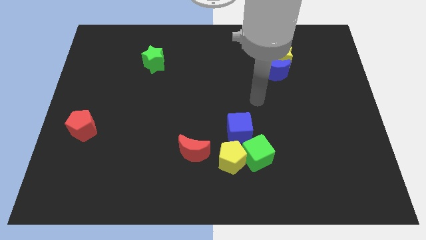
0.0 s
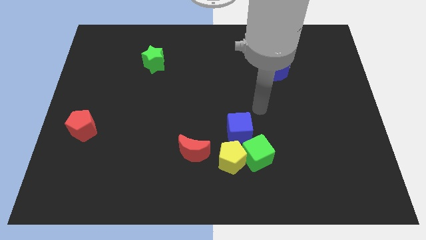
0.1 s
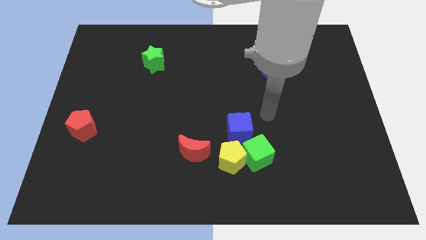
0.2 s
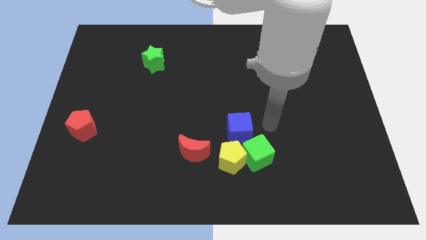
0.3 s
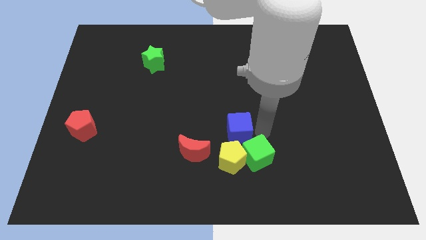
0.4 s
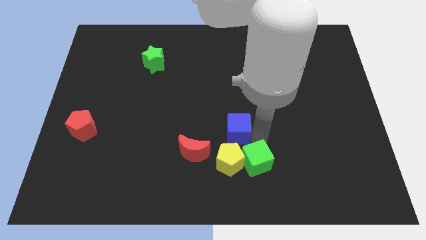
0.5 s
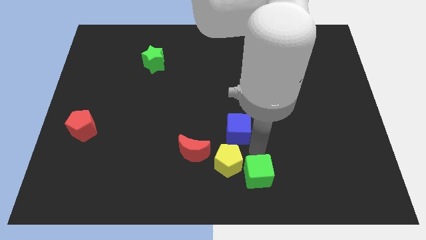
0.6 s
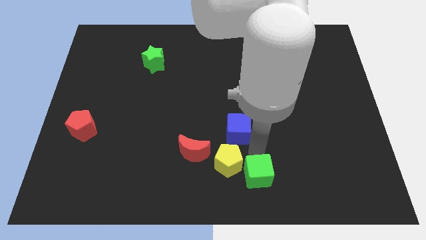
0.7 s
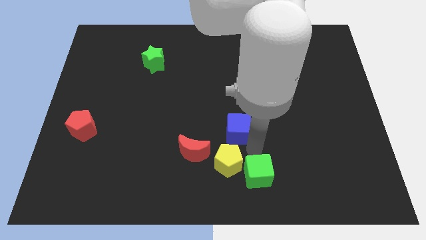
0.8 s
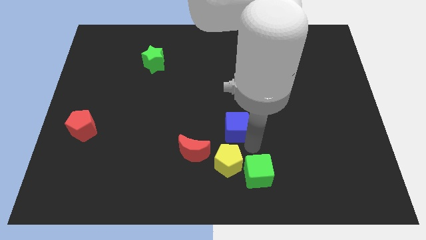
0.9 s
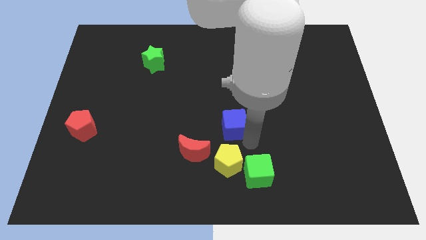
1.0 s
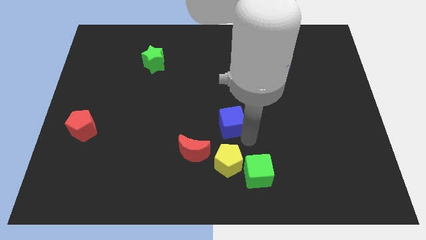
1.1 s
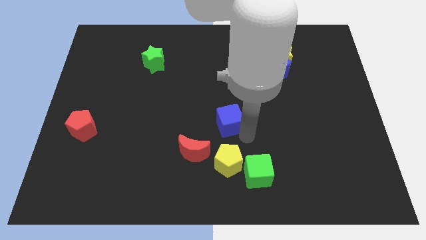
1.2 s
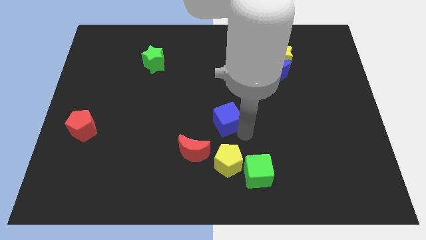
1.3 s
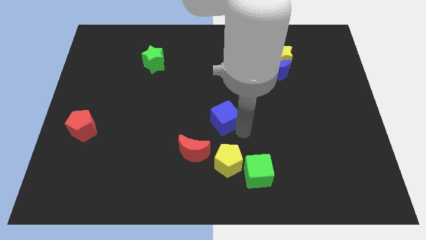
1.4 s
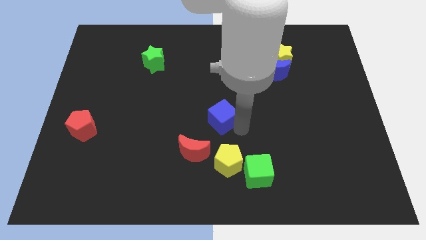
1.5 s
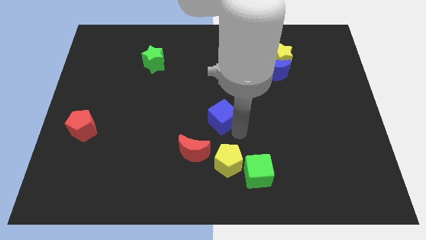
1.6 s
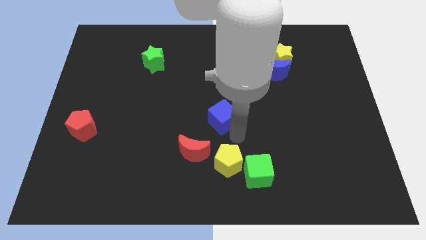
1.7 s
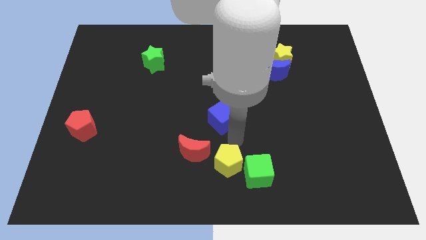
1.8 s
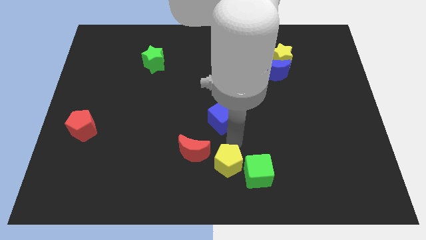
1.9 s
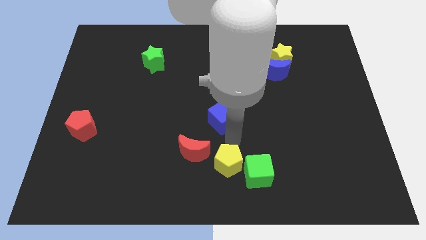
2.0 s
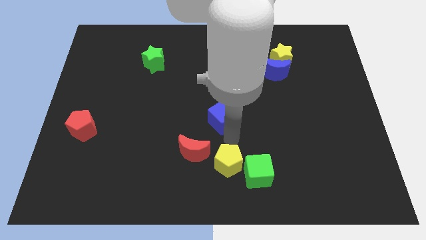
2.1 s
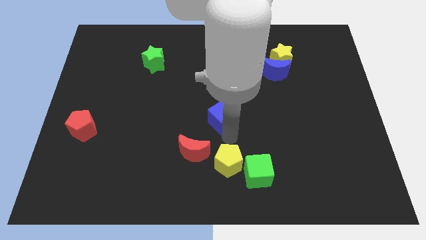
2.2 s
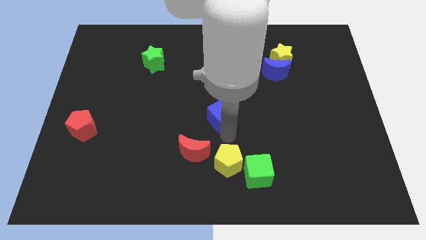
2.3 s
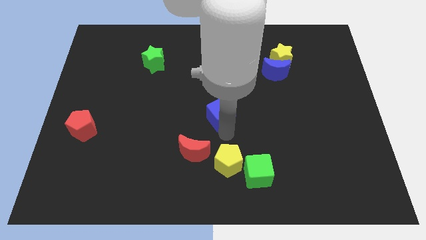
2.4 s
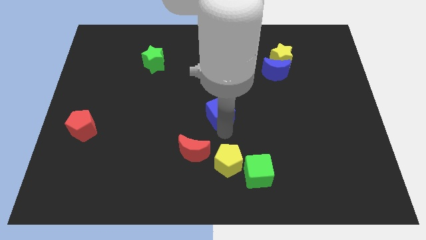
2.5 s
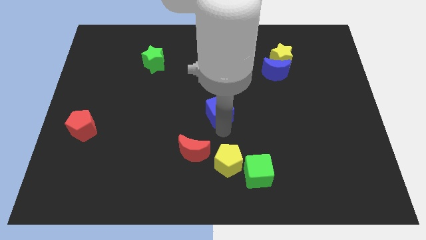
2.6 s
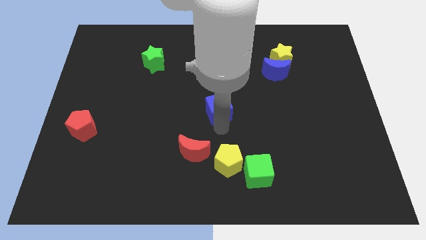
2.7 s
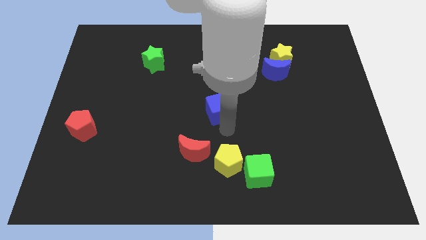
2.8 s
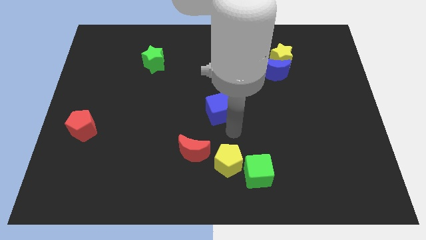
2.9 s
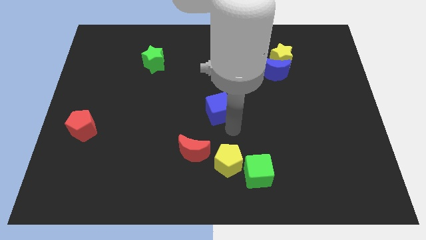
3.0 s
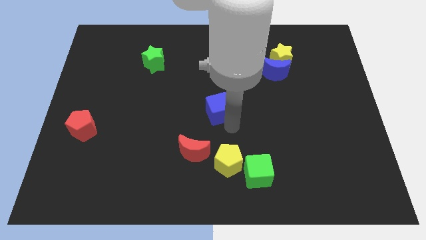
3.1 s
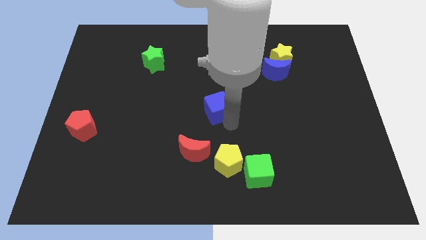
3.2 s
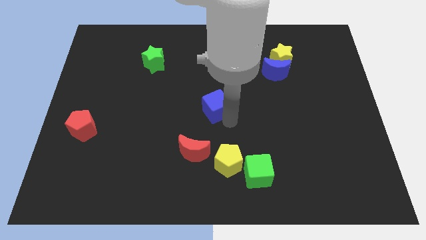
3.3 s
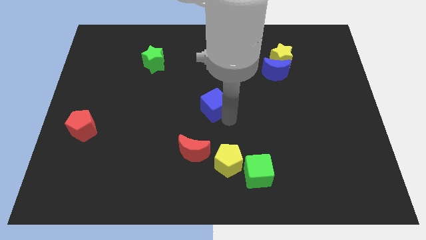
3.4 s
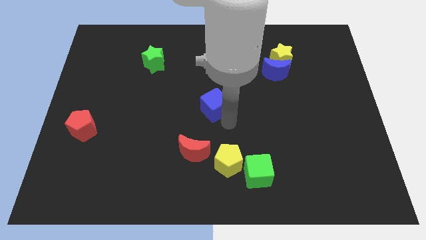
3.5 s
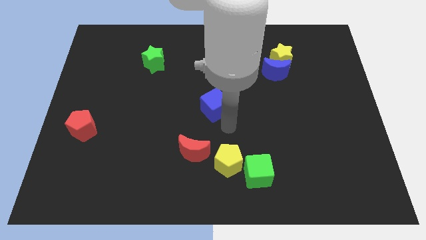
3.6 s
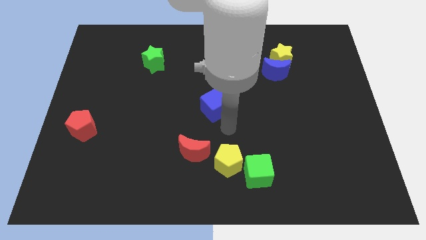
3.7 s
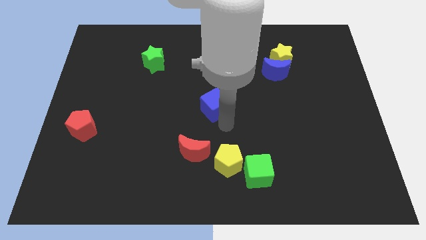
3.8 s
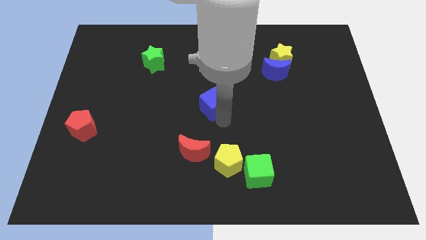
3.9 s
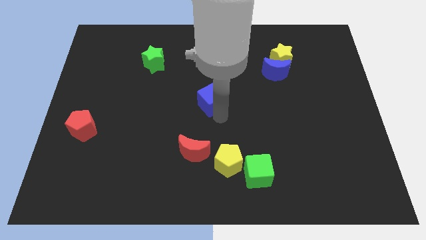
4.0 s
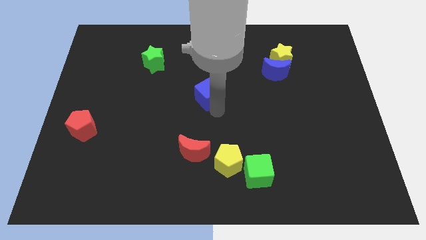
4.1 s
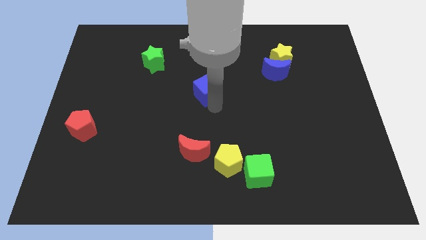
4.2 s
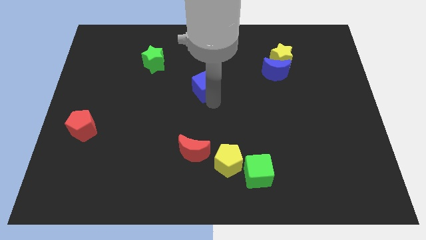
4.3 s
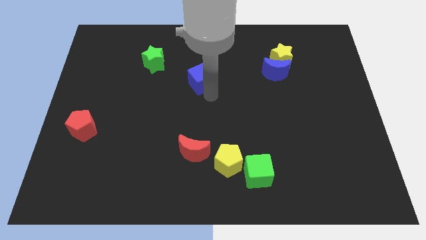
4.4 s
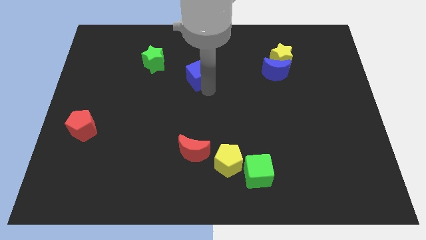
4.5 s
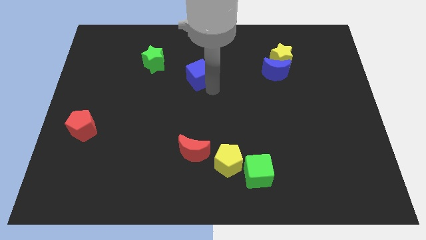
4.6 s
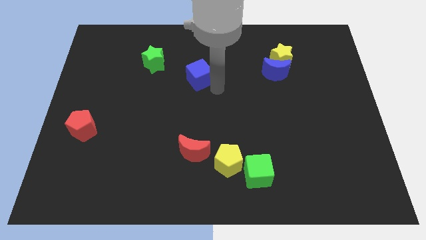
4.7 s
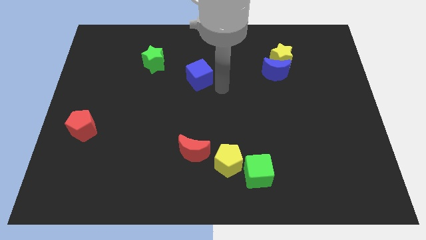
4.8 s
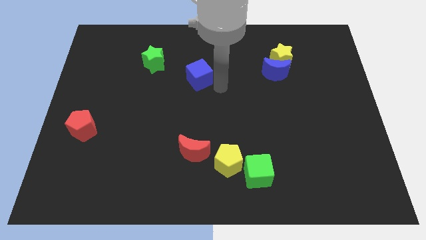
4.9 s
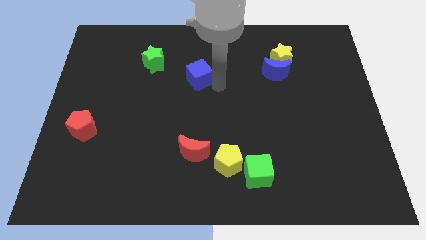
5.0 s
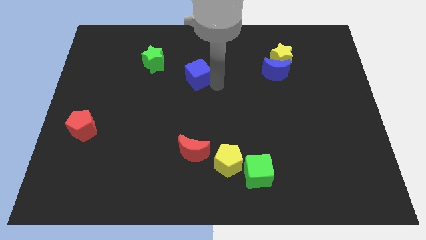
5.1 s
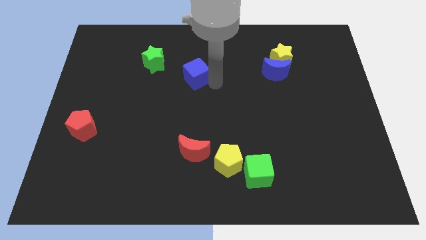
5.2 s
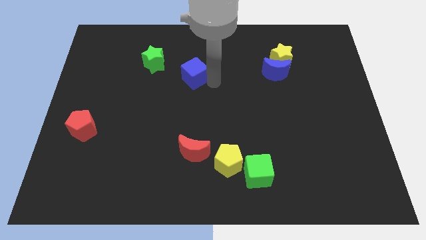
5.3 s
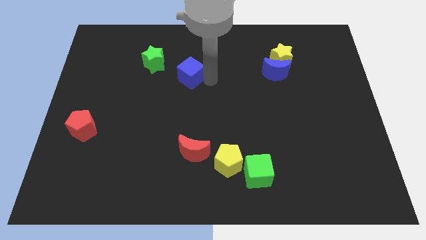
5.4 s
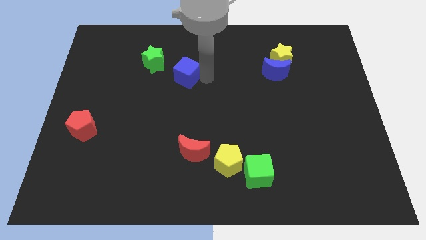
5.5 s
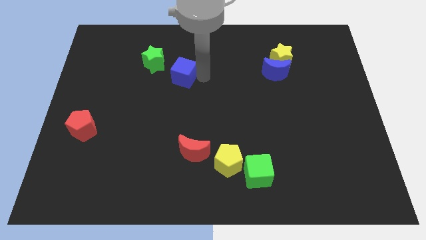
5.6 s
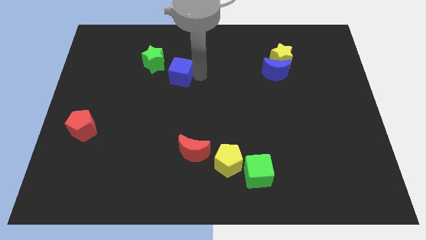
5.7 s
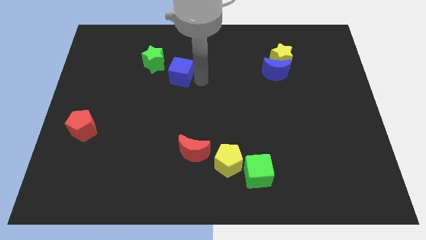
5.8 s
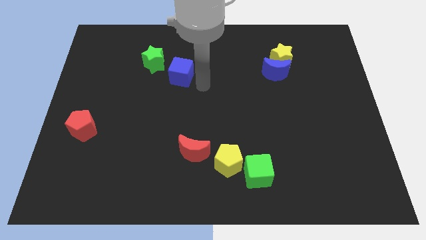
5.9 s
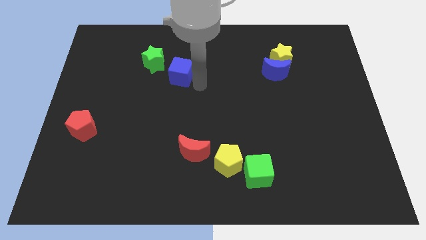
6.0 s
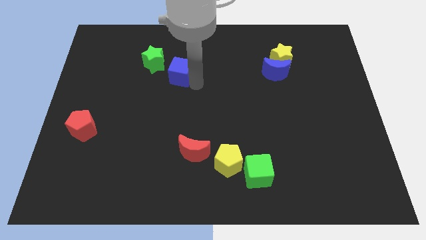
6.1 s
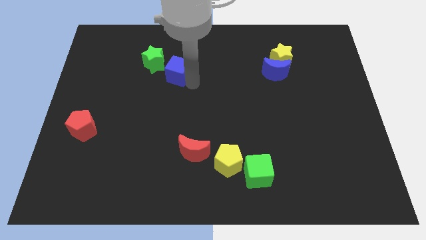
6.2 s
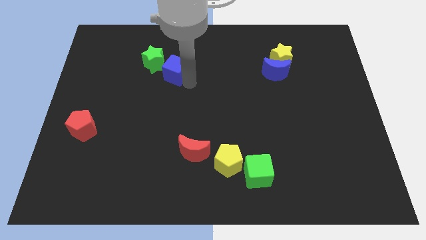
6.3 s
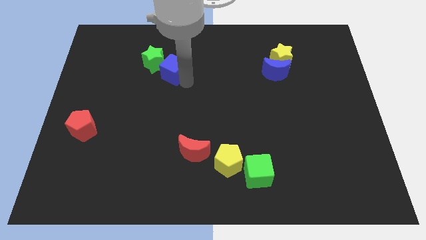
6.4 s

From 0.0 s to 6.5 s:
slide the blue cube close to the green star

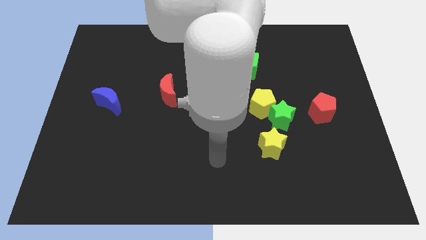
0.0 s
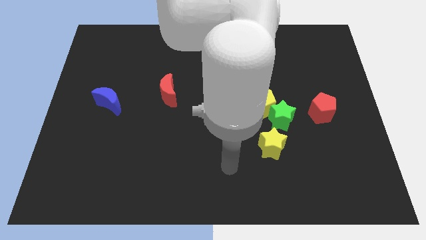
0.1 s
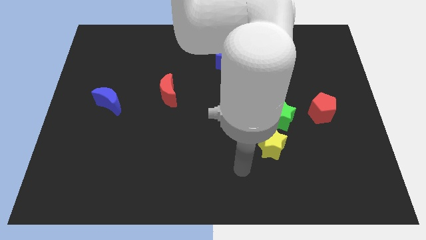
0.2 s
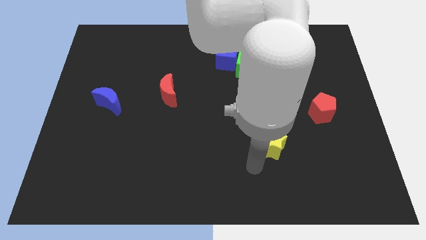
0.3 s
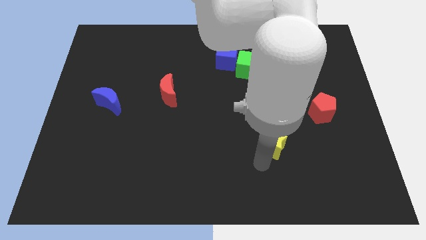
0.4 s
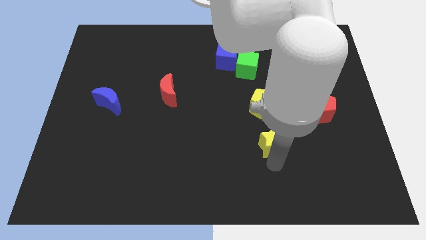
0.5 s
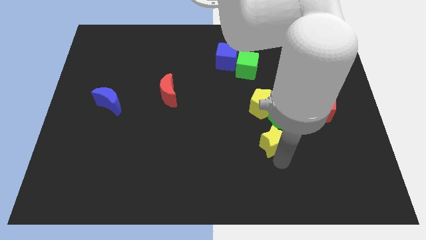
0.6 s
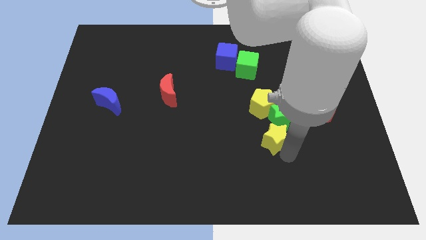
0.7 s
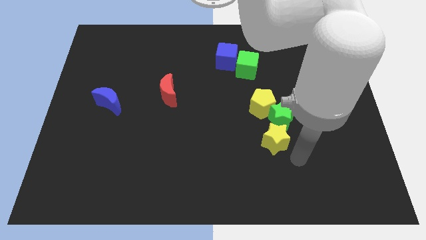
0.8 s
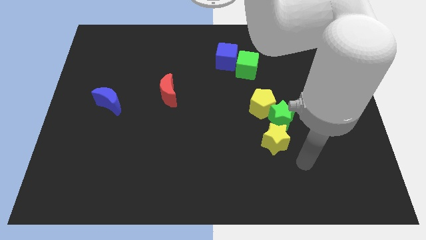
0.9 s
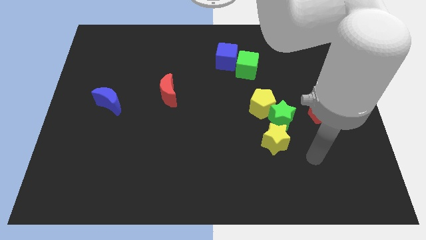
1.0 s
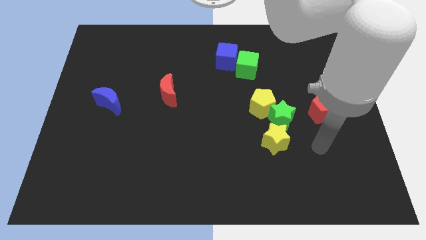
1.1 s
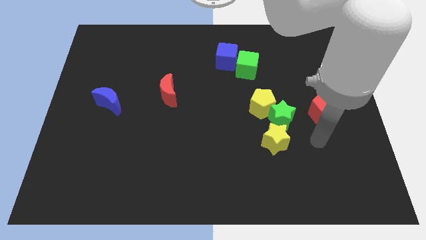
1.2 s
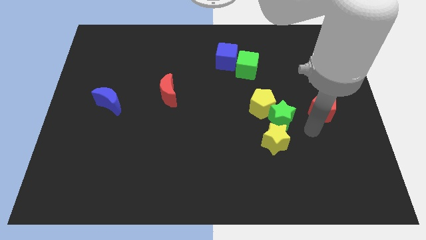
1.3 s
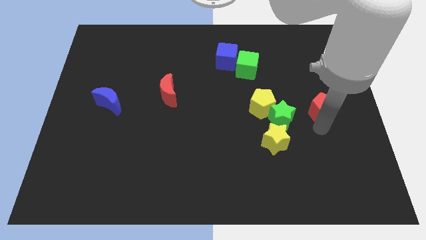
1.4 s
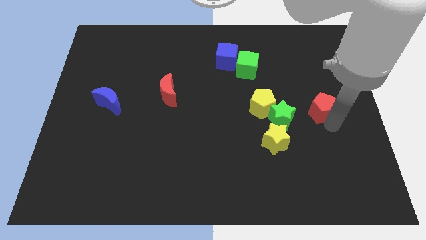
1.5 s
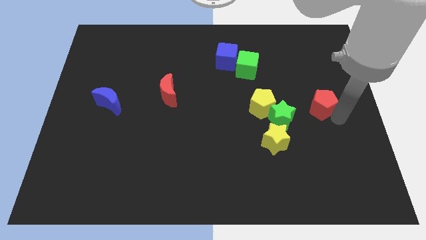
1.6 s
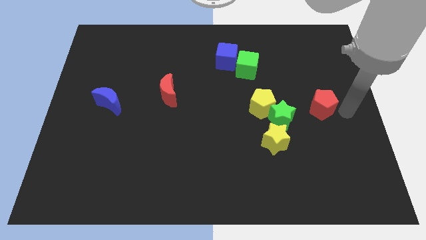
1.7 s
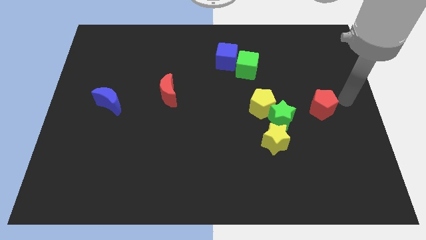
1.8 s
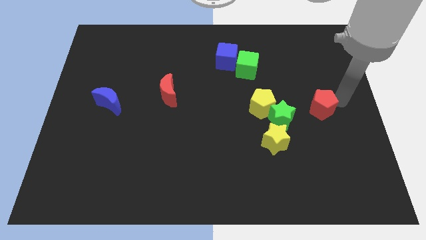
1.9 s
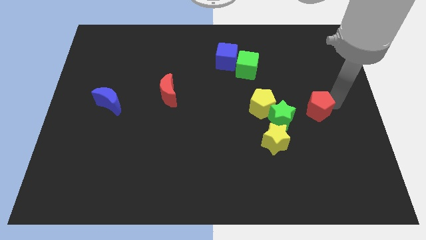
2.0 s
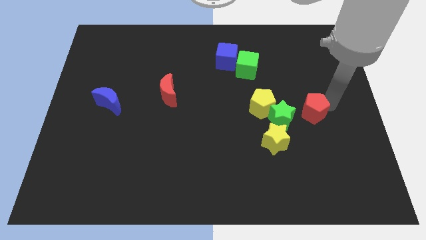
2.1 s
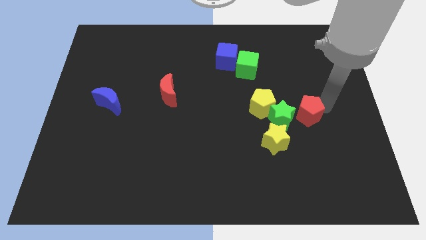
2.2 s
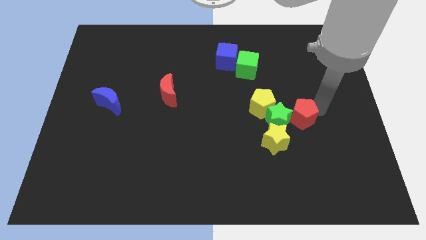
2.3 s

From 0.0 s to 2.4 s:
slide the red pentagon towards the green star
